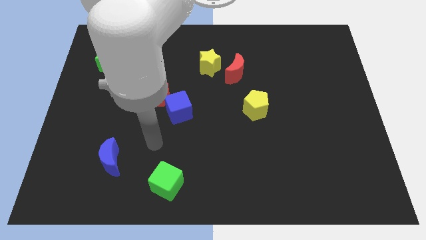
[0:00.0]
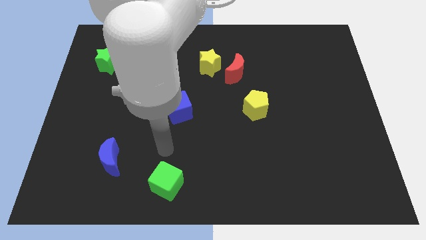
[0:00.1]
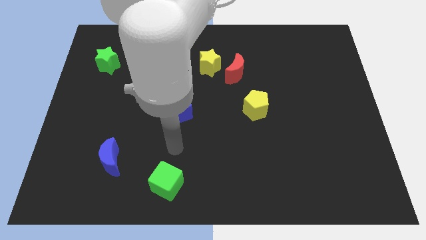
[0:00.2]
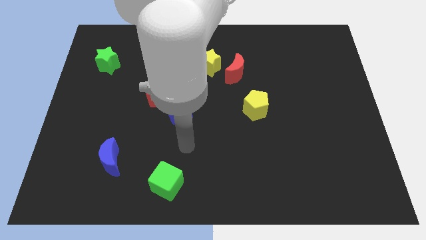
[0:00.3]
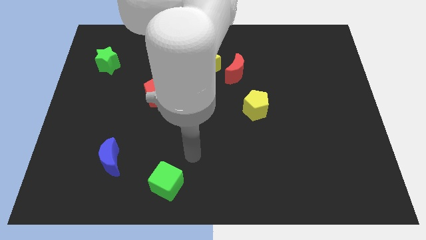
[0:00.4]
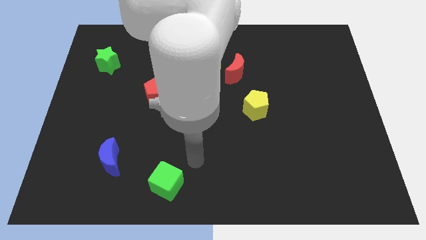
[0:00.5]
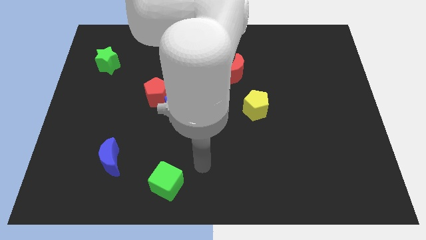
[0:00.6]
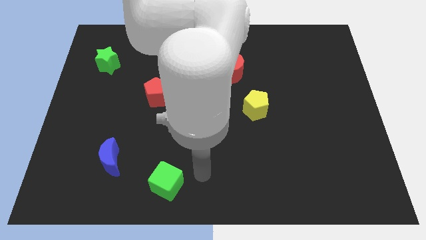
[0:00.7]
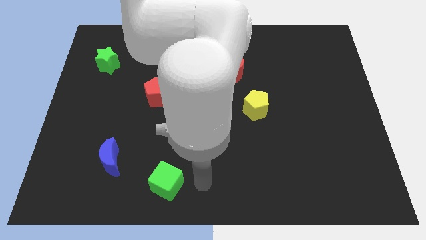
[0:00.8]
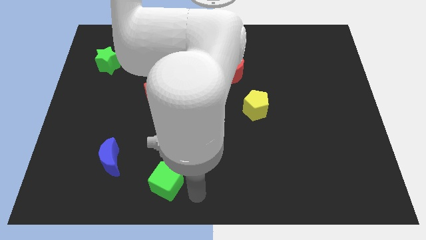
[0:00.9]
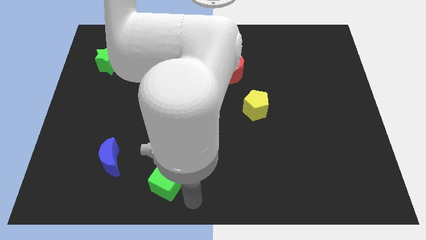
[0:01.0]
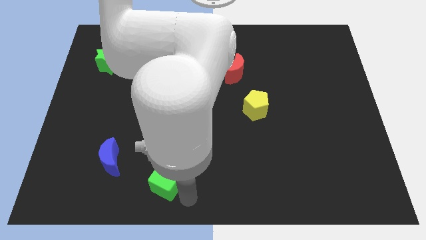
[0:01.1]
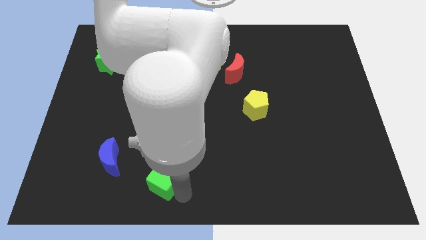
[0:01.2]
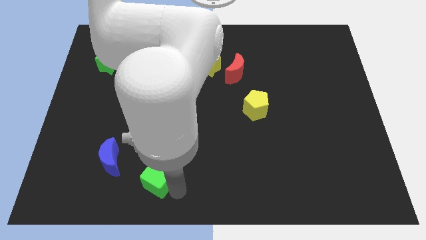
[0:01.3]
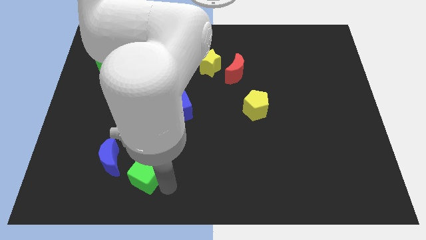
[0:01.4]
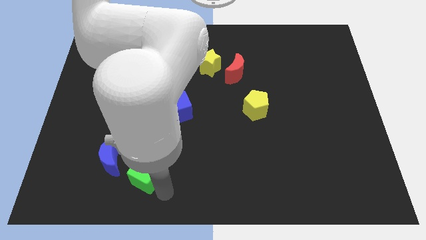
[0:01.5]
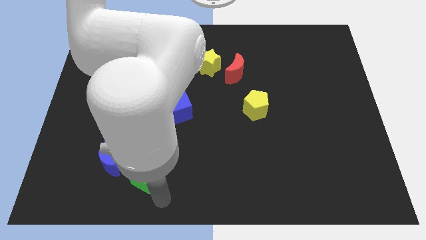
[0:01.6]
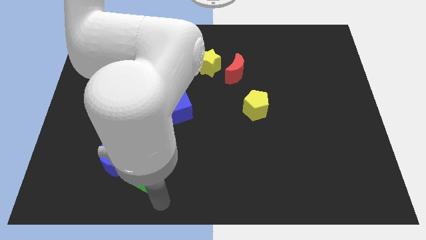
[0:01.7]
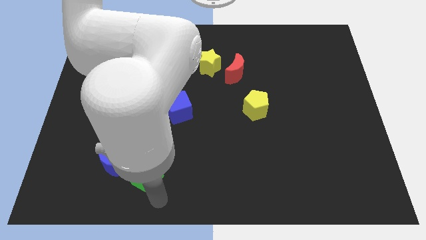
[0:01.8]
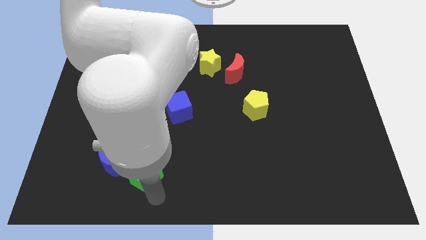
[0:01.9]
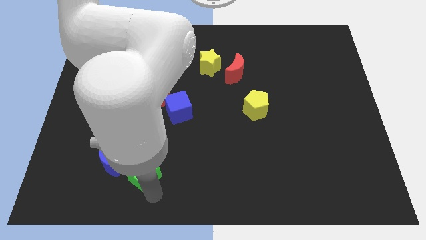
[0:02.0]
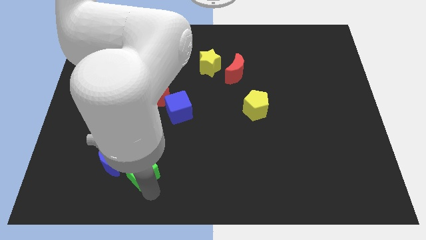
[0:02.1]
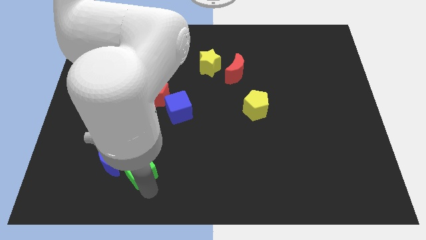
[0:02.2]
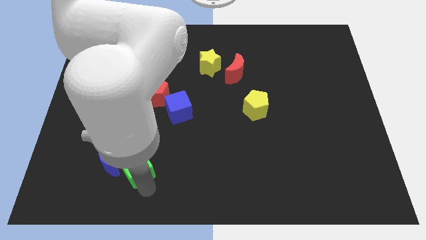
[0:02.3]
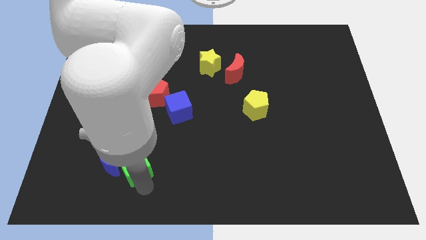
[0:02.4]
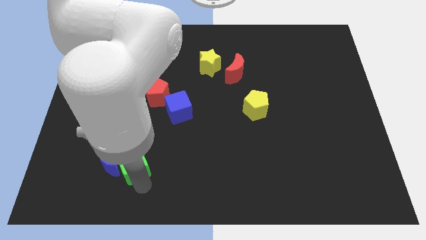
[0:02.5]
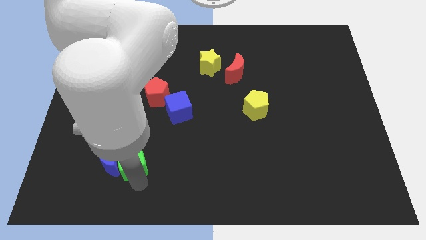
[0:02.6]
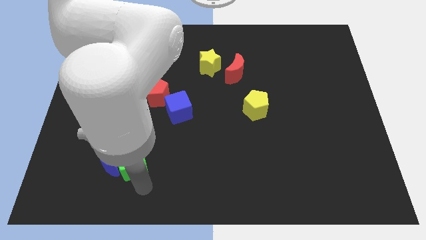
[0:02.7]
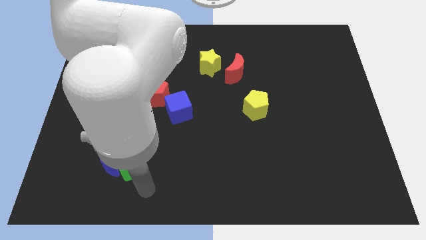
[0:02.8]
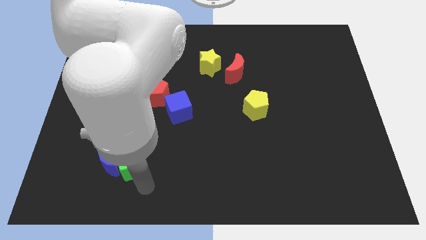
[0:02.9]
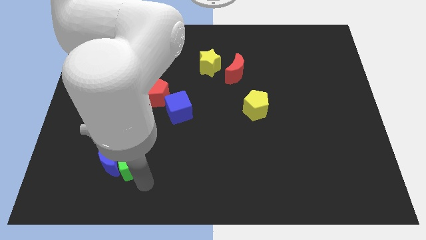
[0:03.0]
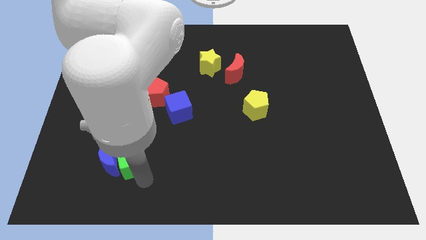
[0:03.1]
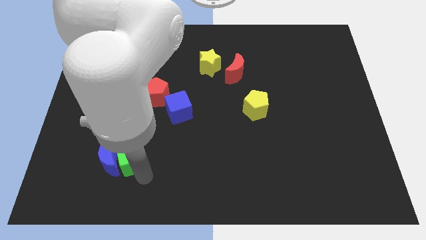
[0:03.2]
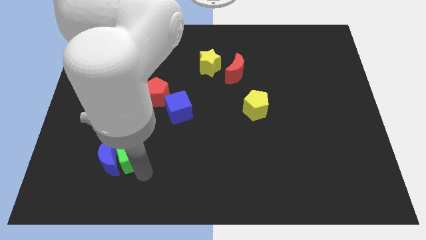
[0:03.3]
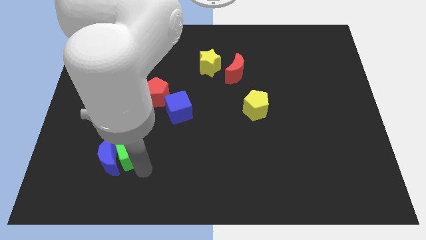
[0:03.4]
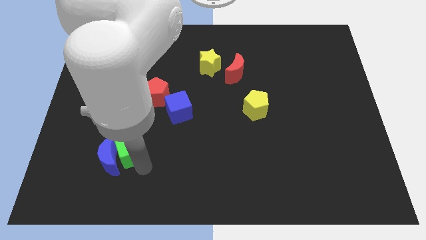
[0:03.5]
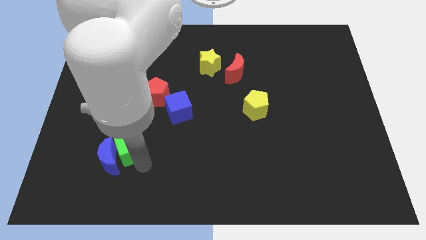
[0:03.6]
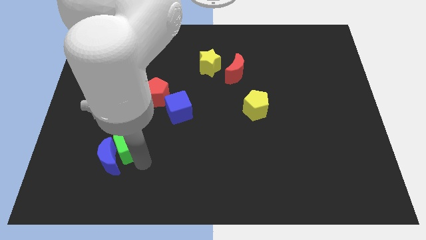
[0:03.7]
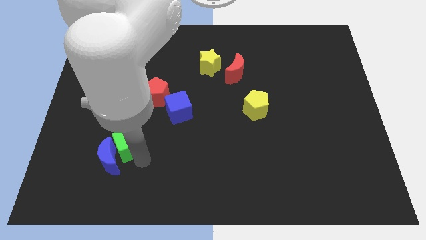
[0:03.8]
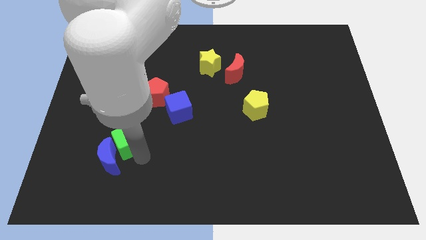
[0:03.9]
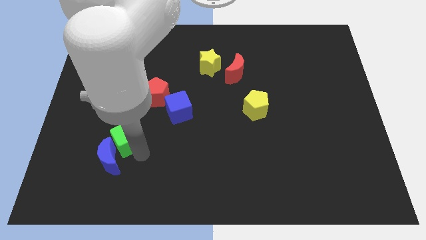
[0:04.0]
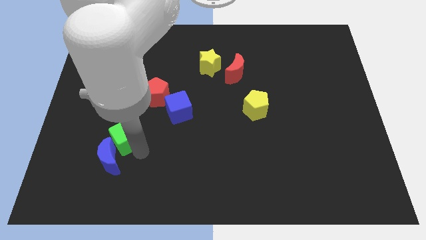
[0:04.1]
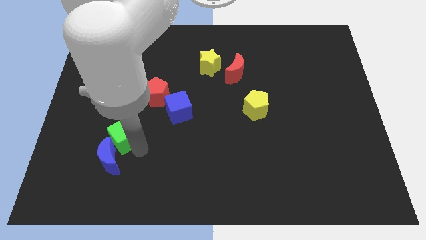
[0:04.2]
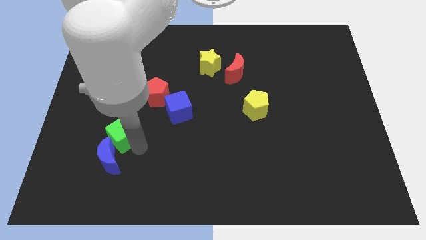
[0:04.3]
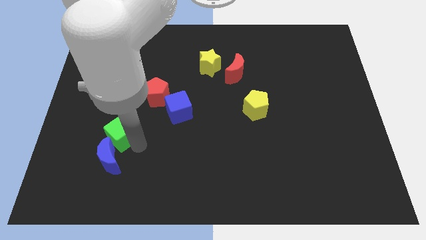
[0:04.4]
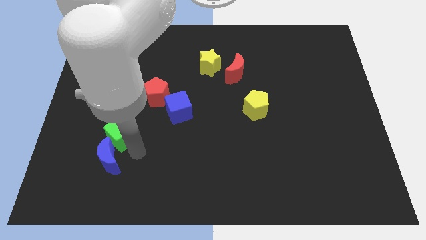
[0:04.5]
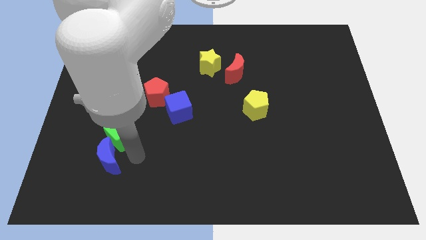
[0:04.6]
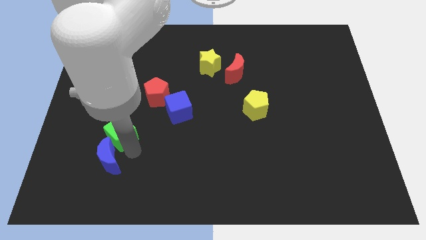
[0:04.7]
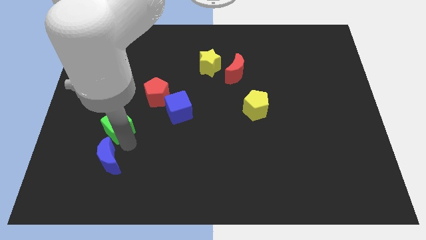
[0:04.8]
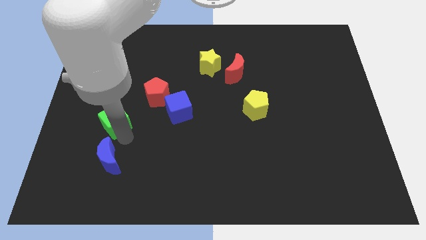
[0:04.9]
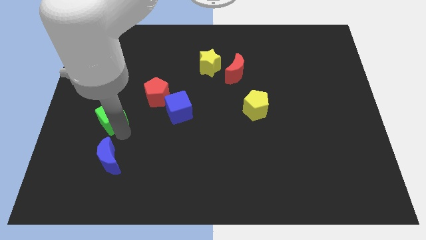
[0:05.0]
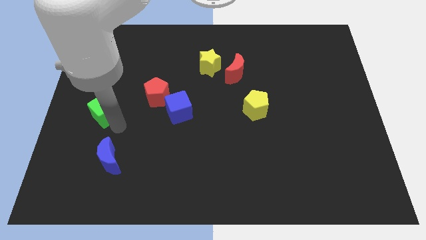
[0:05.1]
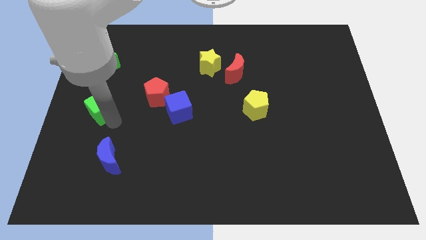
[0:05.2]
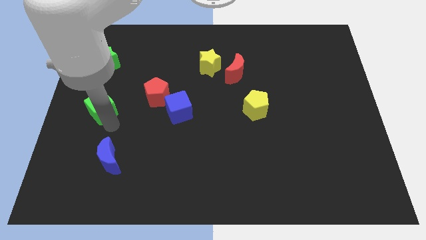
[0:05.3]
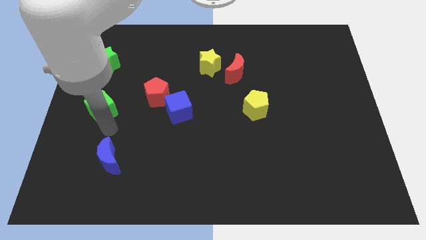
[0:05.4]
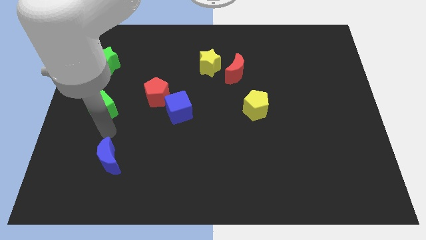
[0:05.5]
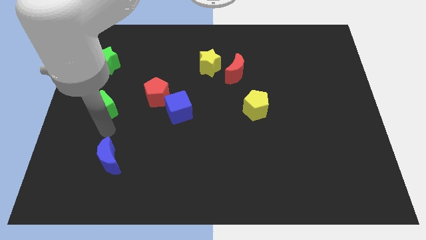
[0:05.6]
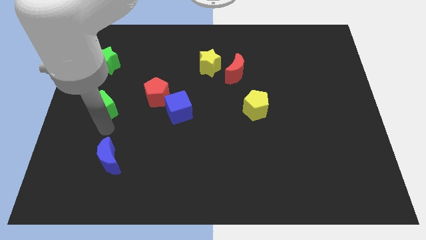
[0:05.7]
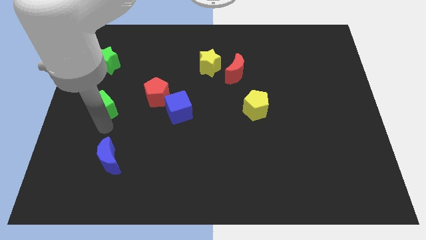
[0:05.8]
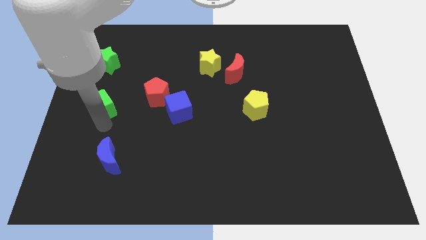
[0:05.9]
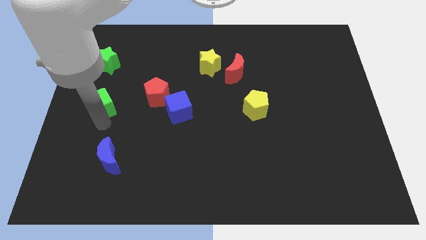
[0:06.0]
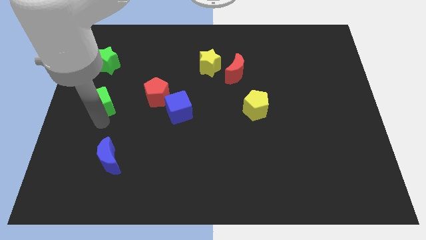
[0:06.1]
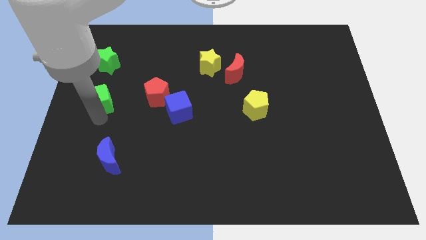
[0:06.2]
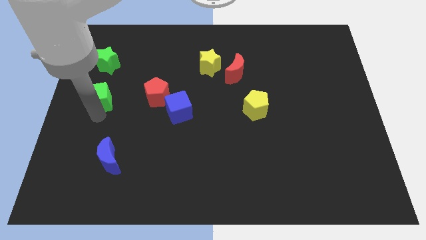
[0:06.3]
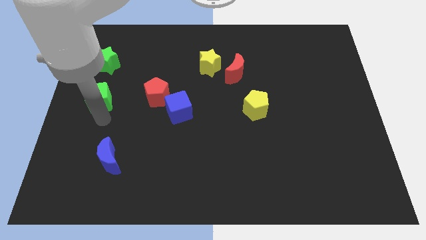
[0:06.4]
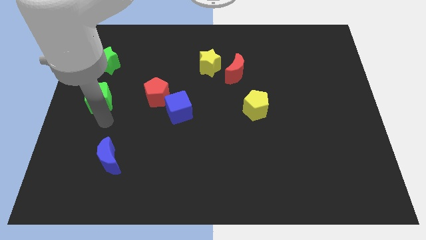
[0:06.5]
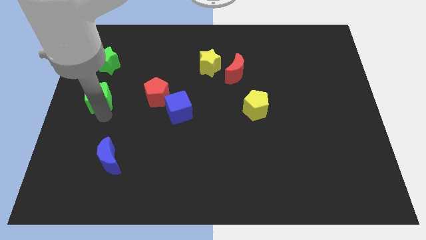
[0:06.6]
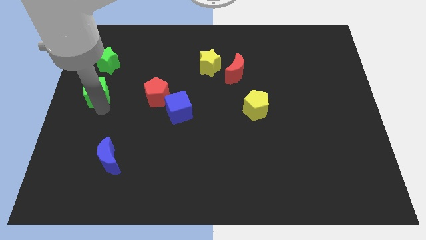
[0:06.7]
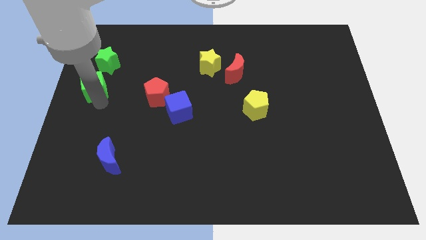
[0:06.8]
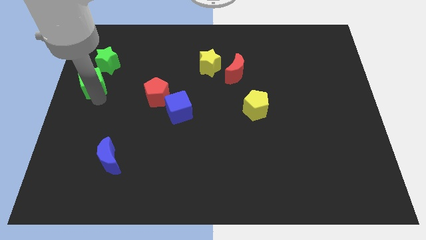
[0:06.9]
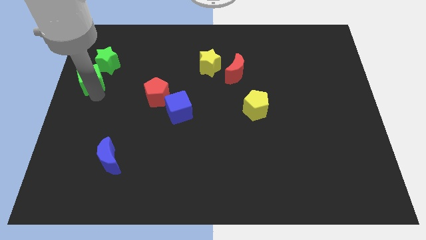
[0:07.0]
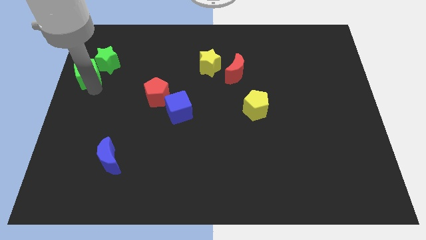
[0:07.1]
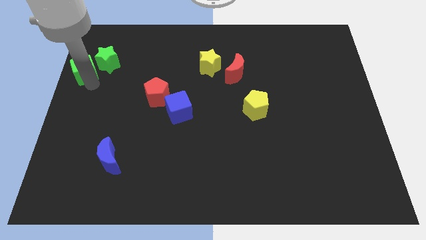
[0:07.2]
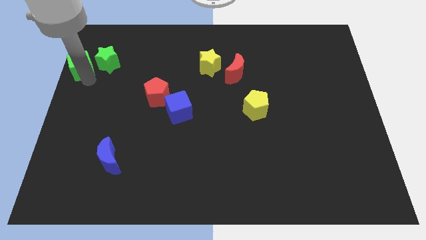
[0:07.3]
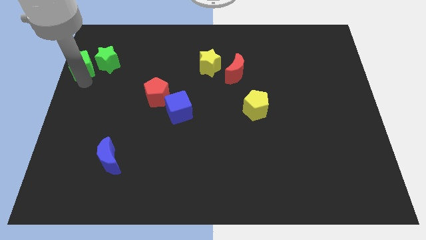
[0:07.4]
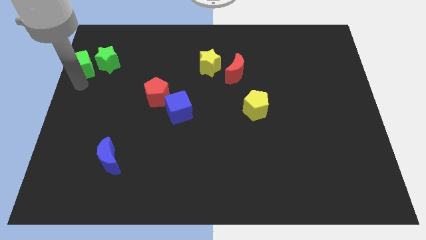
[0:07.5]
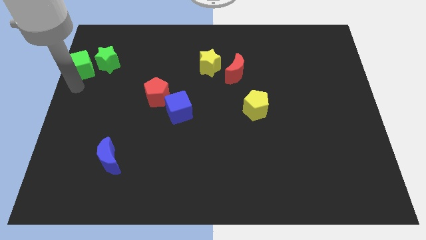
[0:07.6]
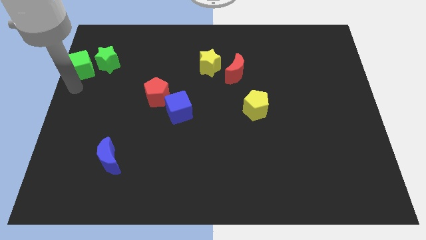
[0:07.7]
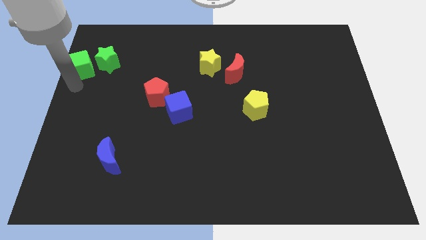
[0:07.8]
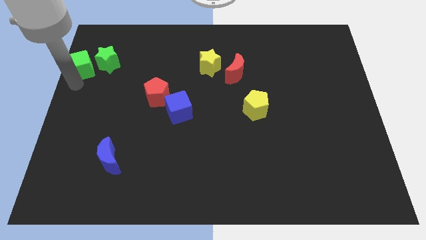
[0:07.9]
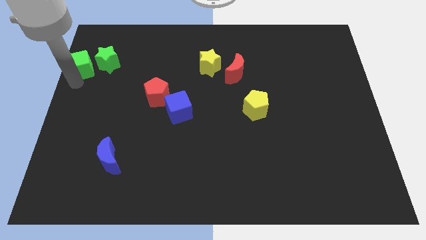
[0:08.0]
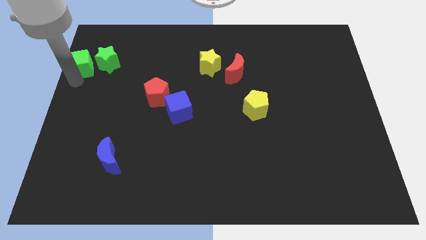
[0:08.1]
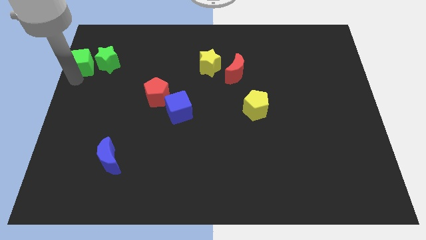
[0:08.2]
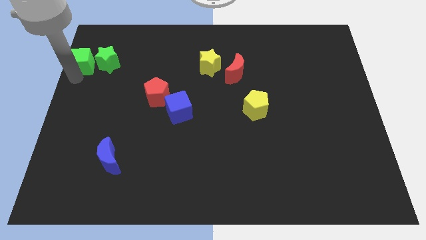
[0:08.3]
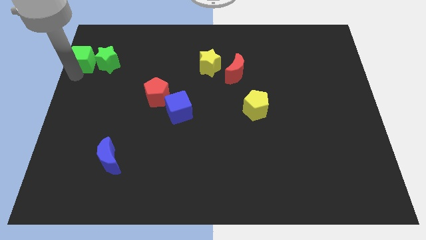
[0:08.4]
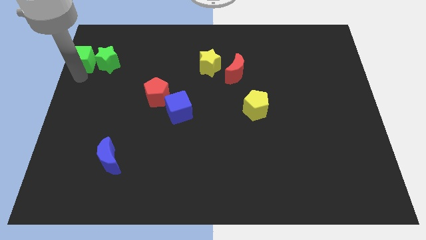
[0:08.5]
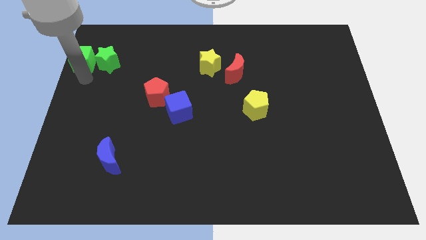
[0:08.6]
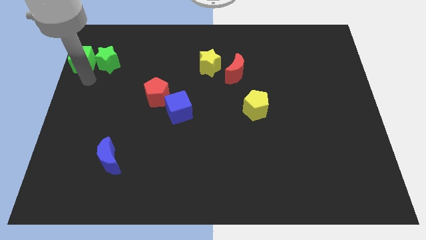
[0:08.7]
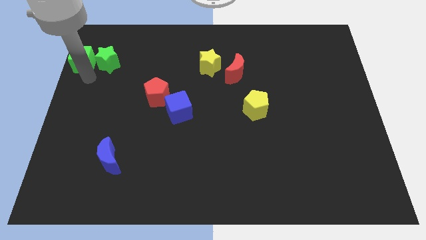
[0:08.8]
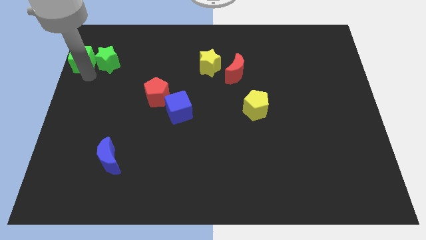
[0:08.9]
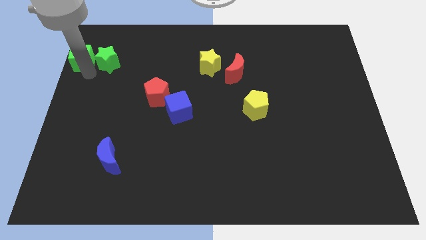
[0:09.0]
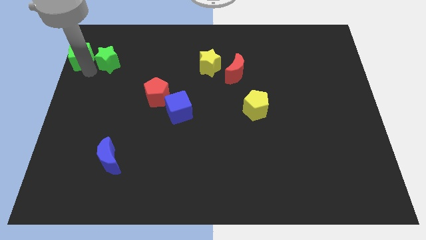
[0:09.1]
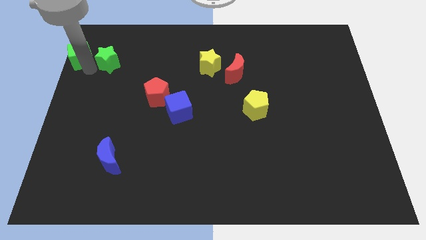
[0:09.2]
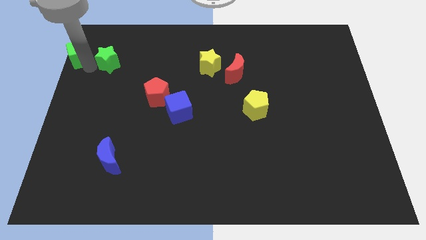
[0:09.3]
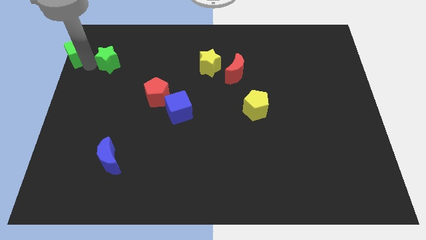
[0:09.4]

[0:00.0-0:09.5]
push the green cube to the upper left corner
